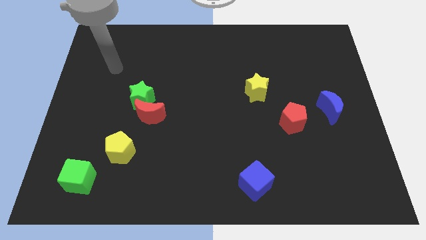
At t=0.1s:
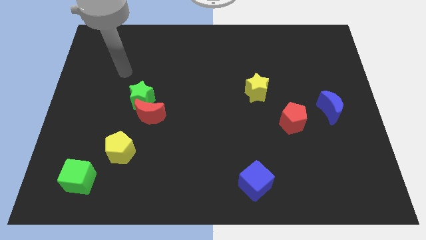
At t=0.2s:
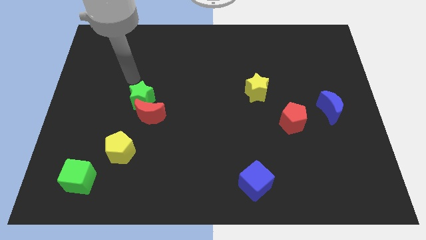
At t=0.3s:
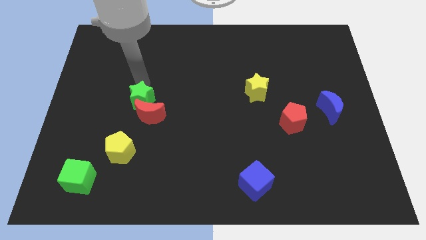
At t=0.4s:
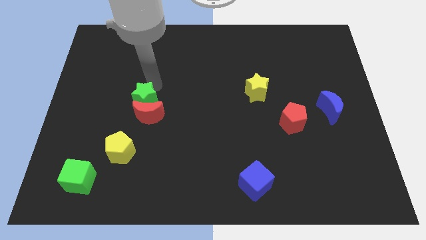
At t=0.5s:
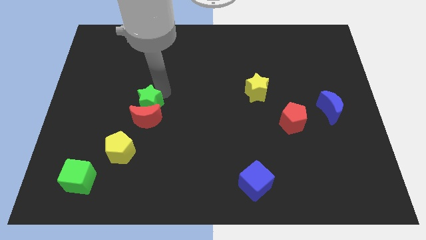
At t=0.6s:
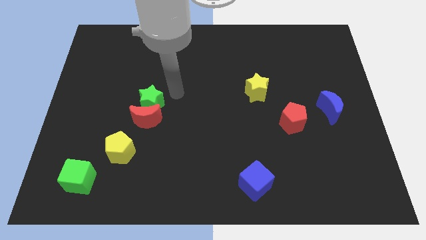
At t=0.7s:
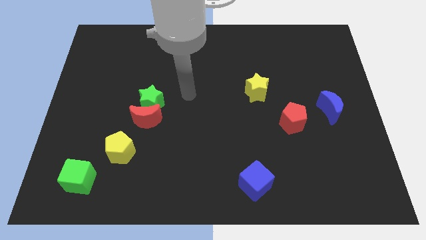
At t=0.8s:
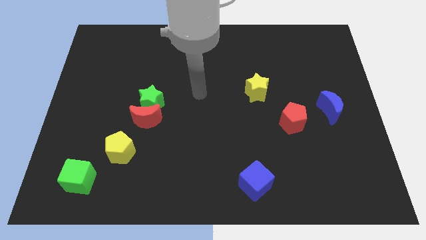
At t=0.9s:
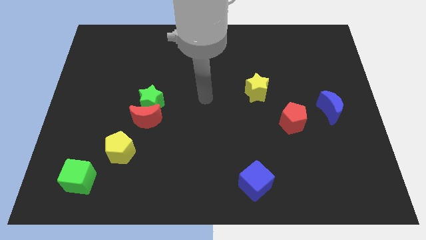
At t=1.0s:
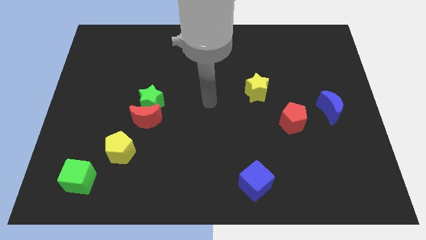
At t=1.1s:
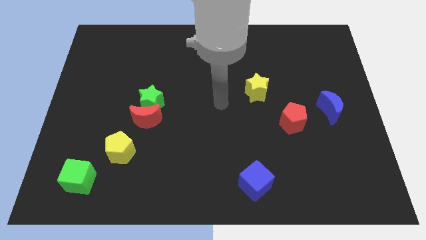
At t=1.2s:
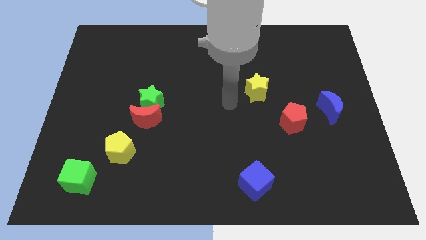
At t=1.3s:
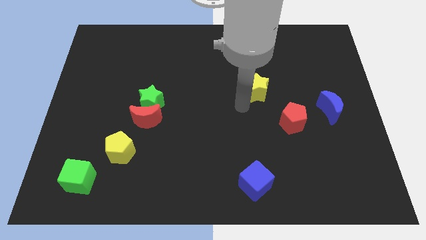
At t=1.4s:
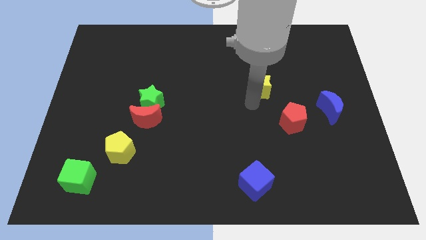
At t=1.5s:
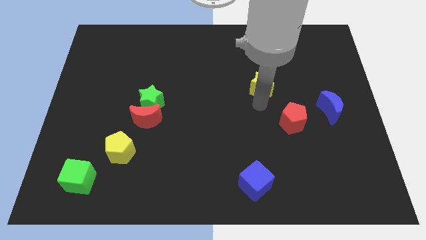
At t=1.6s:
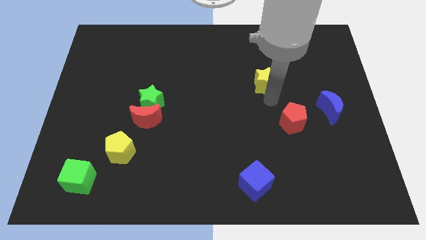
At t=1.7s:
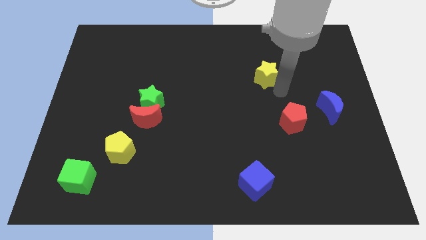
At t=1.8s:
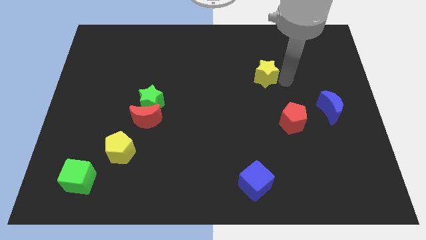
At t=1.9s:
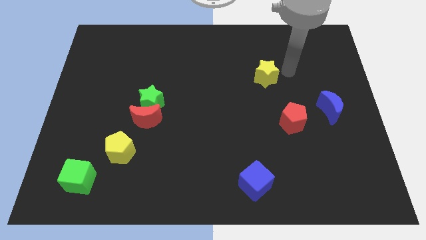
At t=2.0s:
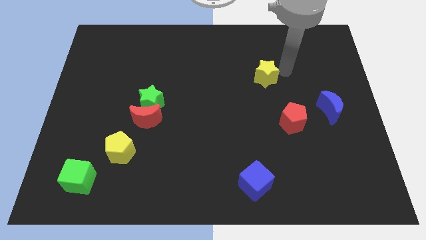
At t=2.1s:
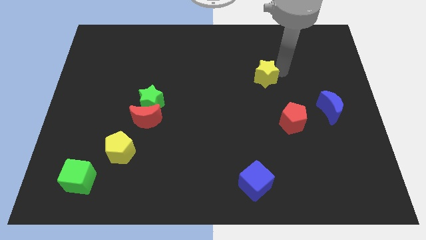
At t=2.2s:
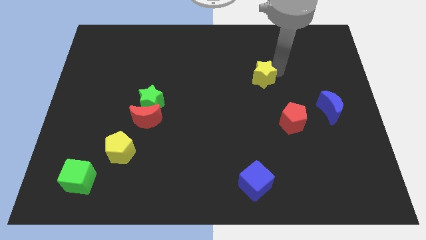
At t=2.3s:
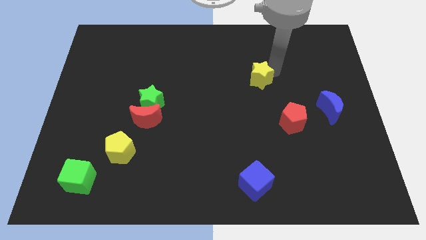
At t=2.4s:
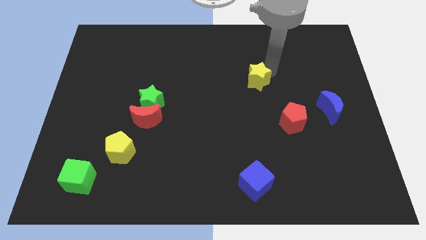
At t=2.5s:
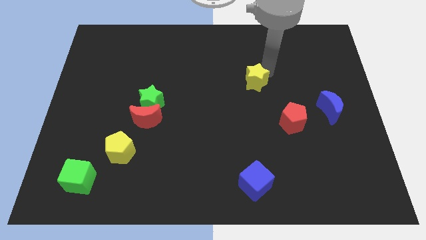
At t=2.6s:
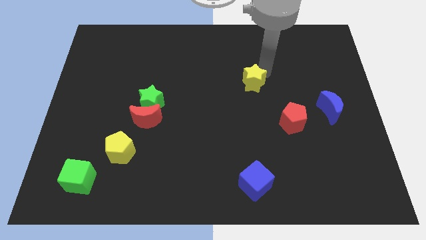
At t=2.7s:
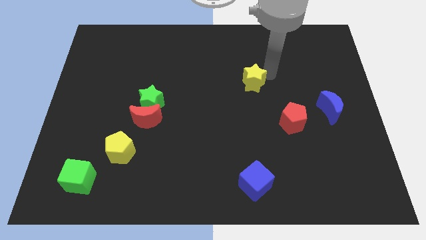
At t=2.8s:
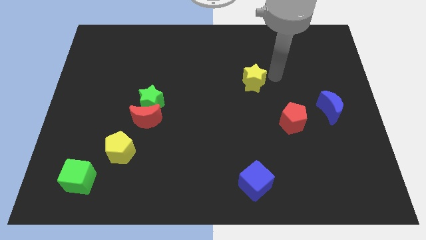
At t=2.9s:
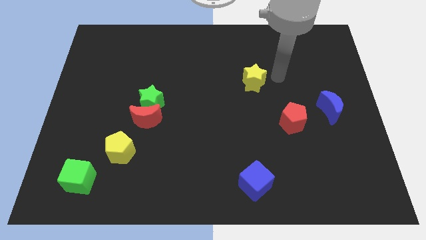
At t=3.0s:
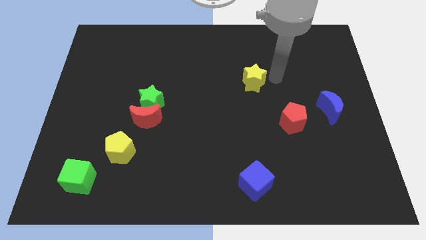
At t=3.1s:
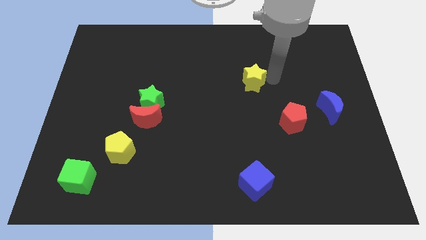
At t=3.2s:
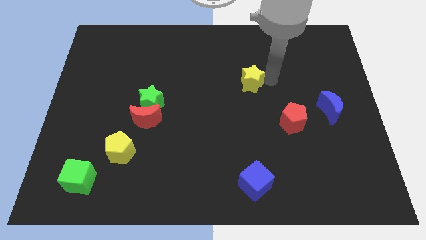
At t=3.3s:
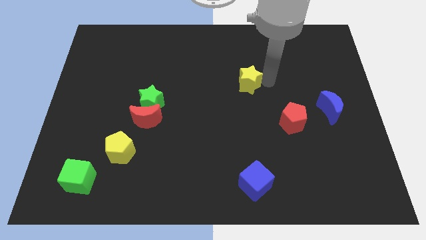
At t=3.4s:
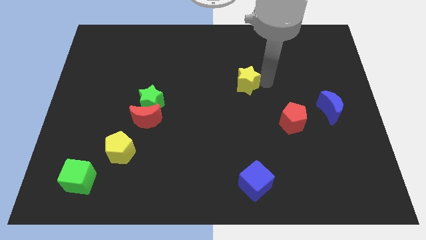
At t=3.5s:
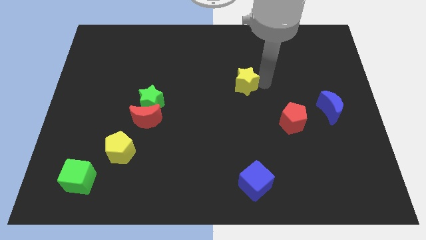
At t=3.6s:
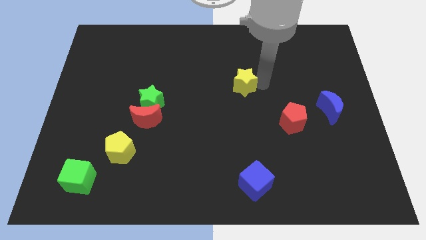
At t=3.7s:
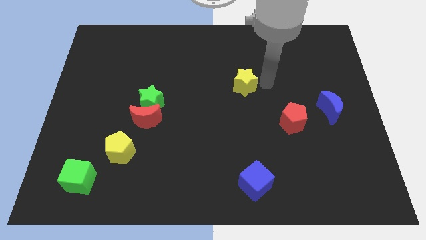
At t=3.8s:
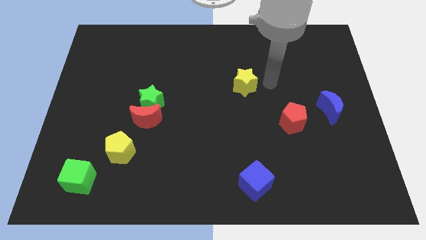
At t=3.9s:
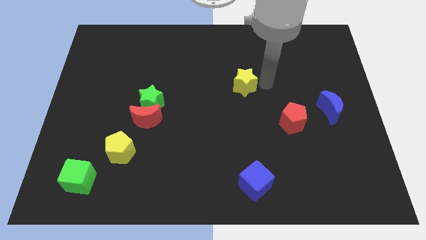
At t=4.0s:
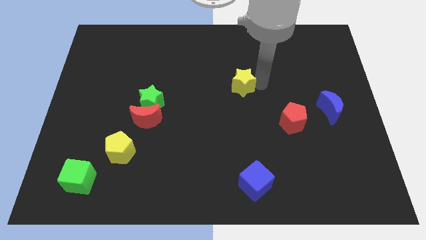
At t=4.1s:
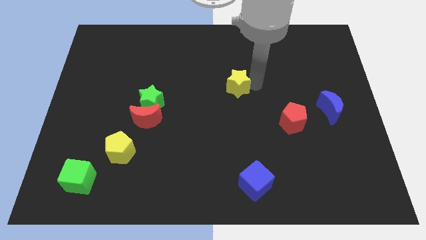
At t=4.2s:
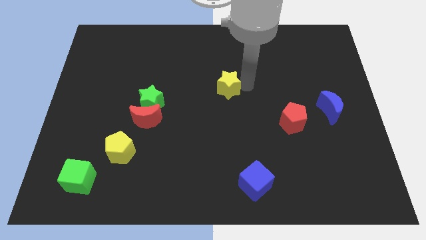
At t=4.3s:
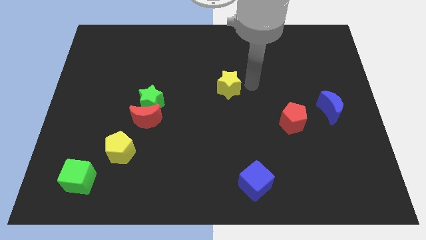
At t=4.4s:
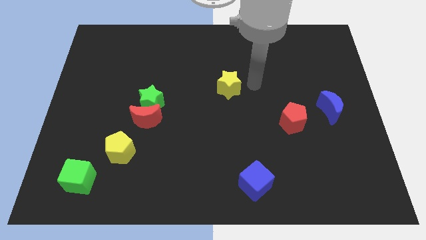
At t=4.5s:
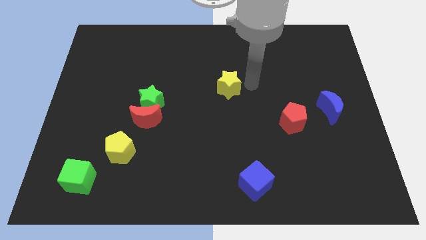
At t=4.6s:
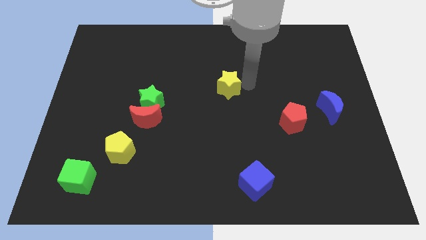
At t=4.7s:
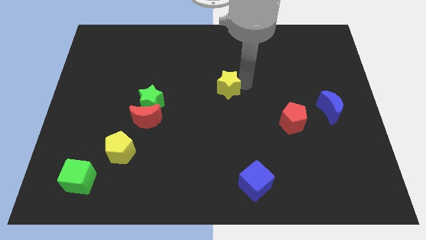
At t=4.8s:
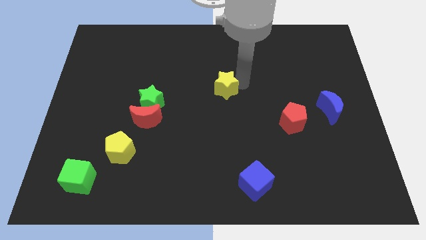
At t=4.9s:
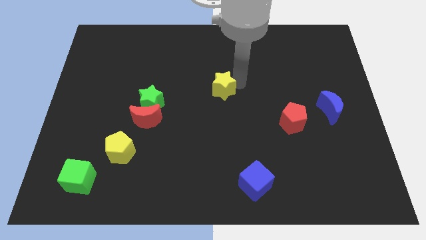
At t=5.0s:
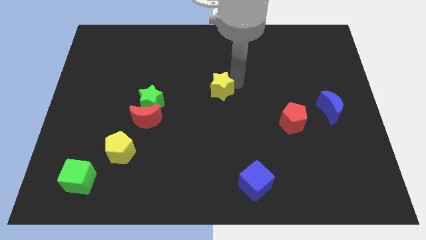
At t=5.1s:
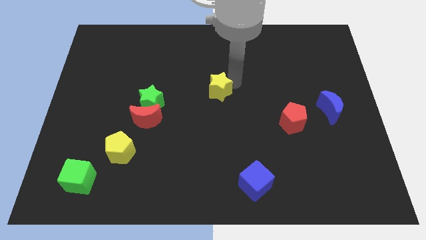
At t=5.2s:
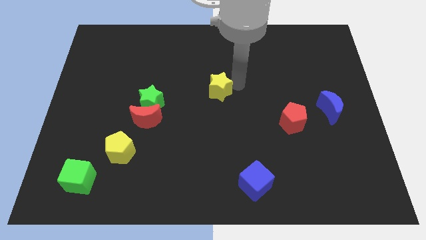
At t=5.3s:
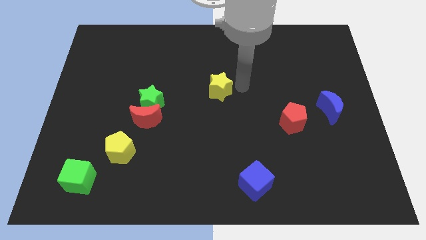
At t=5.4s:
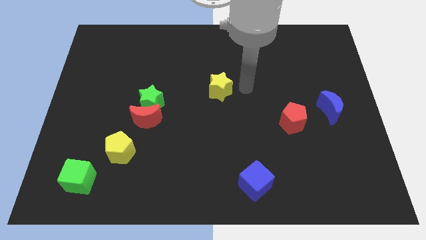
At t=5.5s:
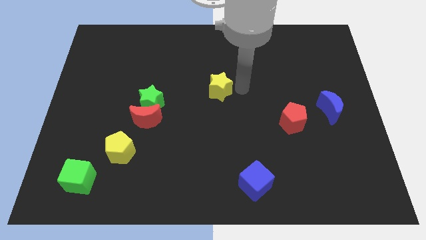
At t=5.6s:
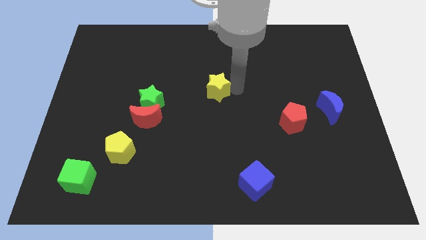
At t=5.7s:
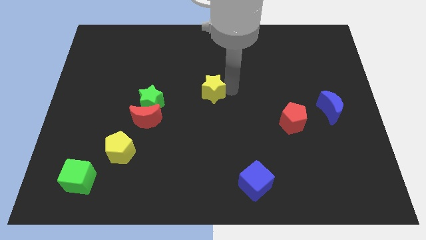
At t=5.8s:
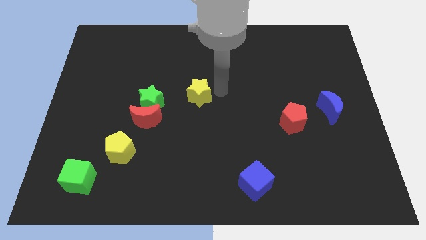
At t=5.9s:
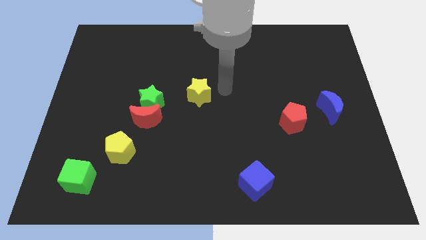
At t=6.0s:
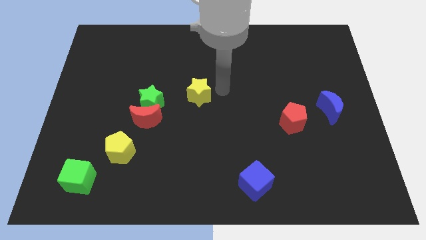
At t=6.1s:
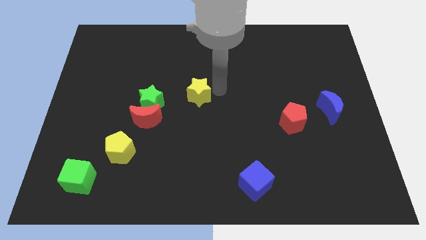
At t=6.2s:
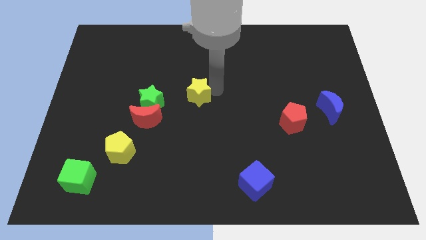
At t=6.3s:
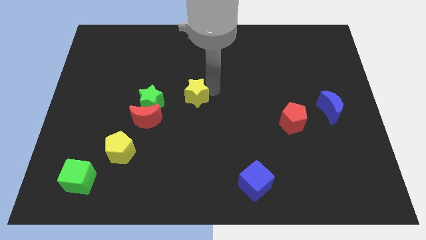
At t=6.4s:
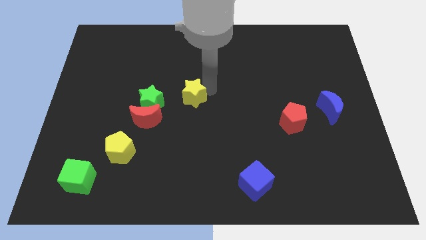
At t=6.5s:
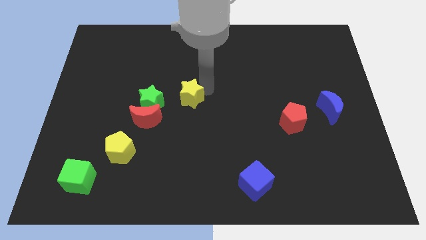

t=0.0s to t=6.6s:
push the yellow star to the top right of the red moon
